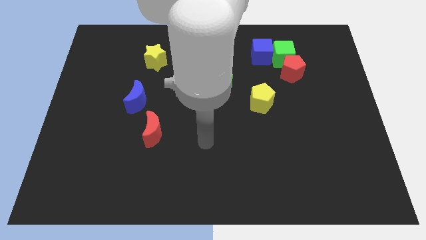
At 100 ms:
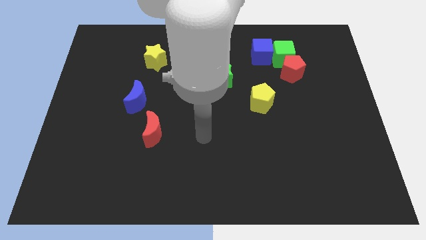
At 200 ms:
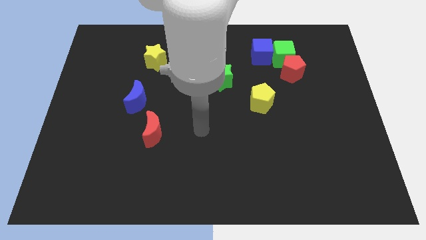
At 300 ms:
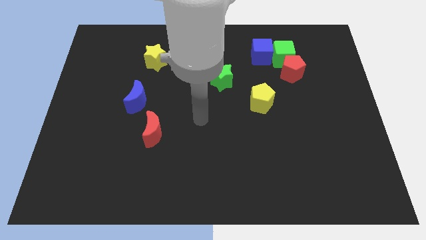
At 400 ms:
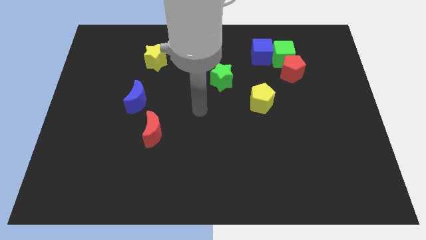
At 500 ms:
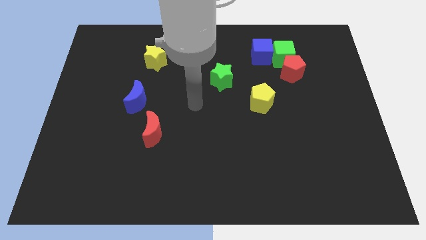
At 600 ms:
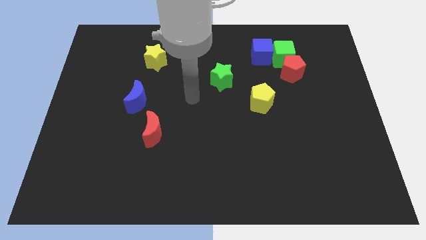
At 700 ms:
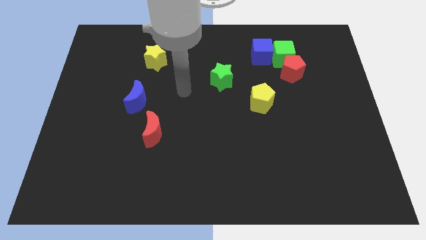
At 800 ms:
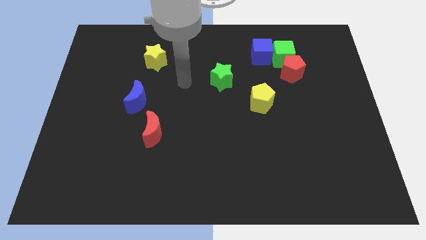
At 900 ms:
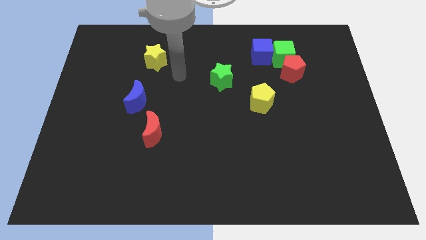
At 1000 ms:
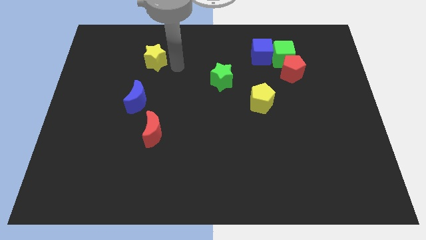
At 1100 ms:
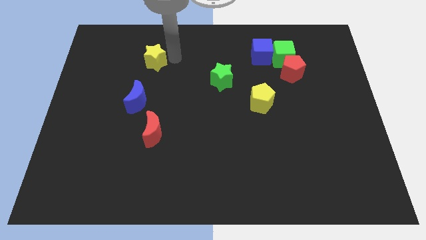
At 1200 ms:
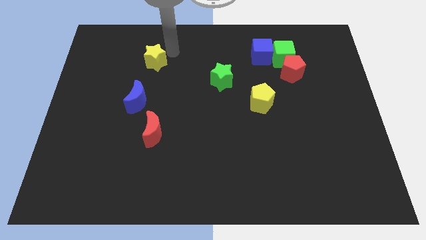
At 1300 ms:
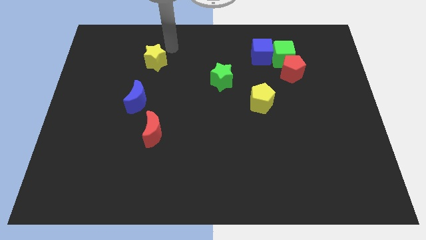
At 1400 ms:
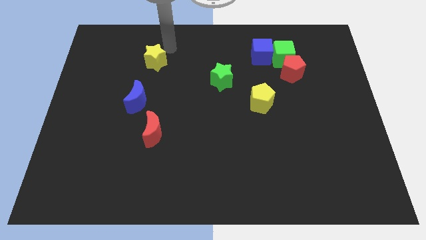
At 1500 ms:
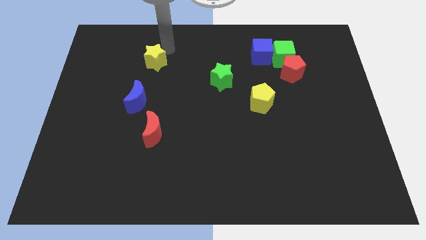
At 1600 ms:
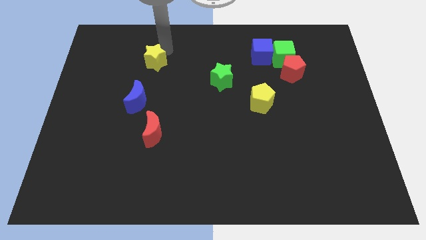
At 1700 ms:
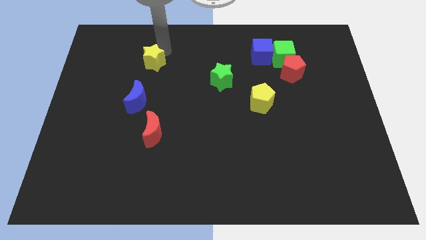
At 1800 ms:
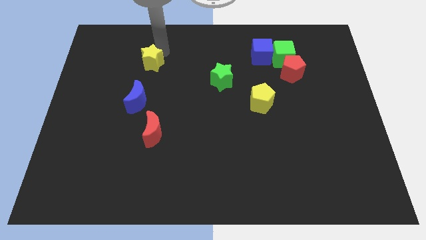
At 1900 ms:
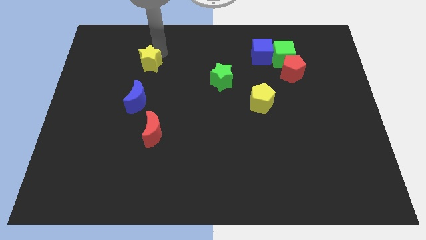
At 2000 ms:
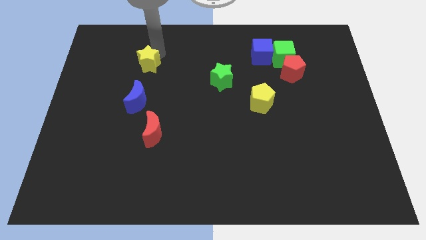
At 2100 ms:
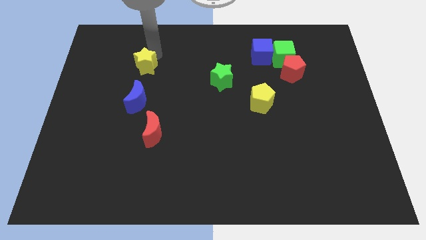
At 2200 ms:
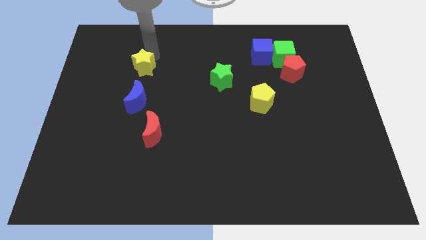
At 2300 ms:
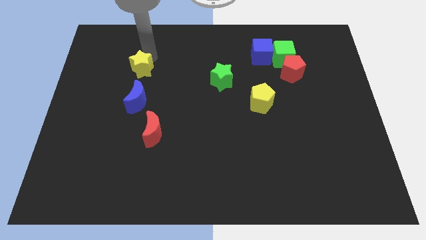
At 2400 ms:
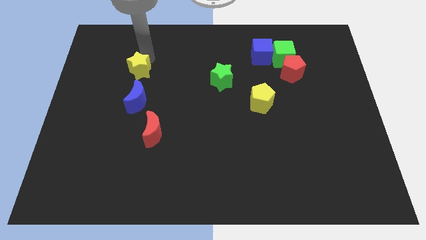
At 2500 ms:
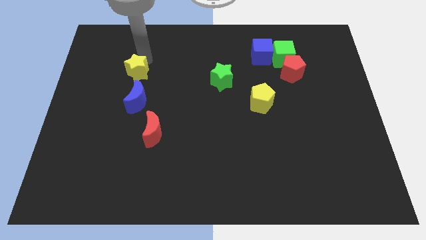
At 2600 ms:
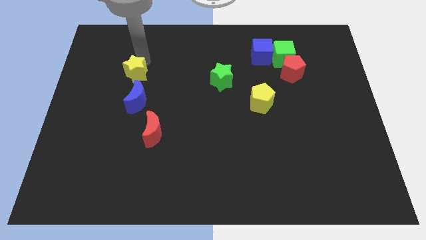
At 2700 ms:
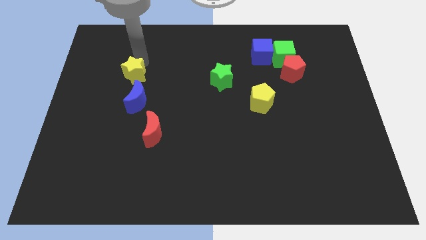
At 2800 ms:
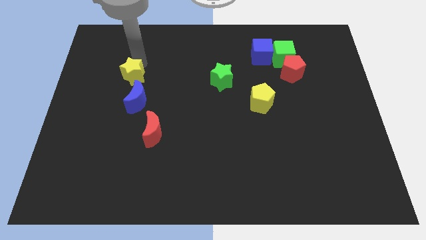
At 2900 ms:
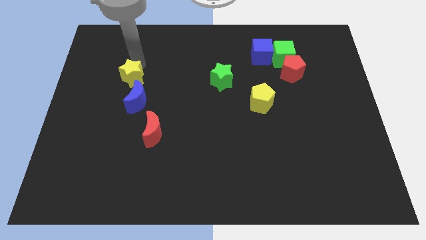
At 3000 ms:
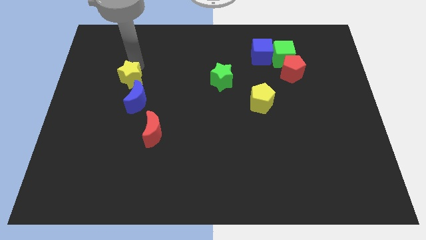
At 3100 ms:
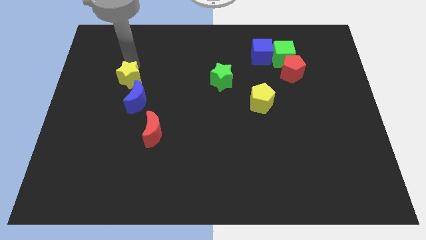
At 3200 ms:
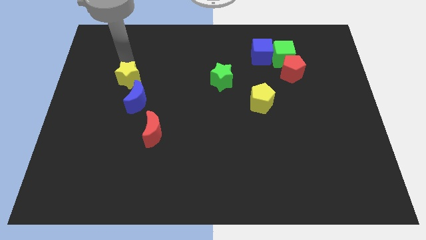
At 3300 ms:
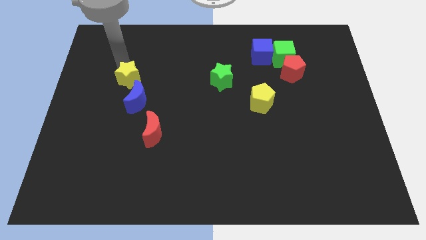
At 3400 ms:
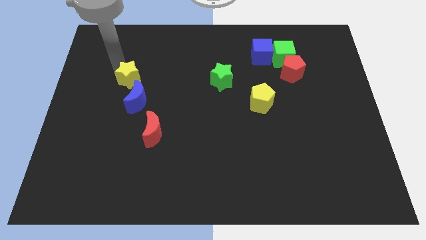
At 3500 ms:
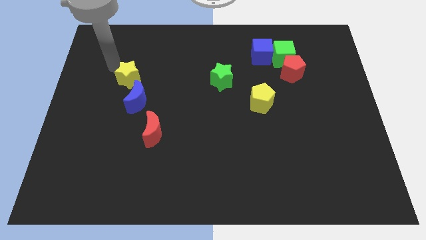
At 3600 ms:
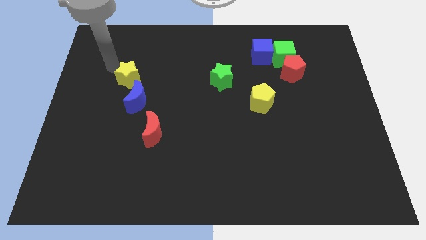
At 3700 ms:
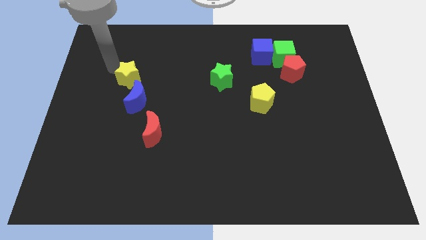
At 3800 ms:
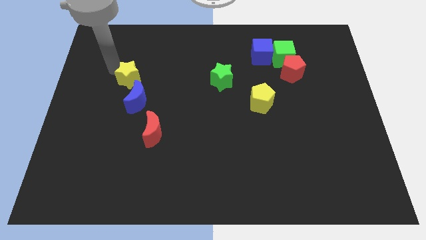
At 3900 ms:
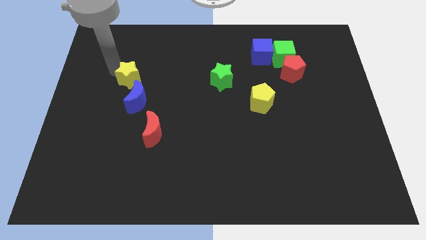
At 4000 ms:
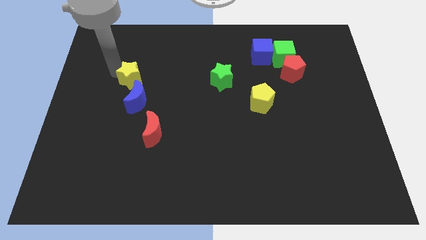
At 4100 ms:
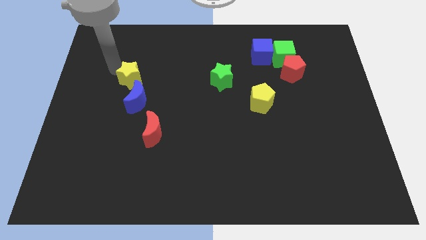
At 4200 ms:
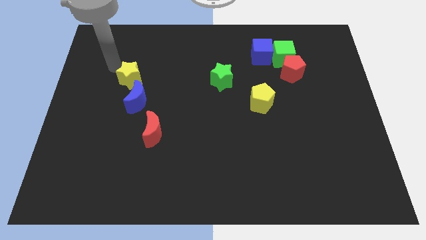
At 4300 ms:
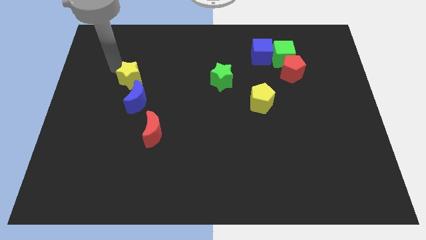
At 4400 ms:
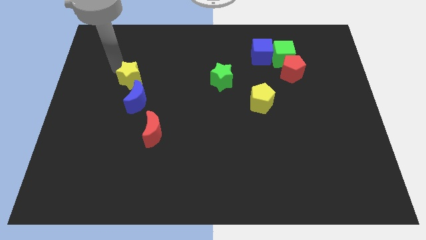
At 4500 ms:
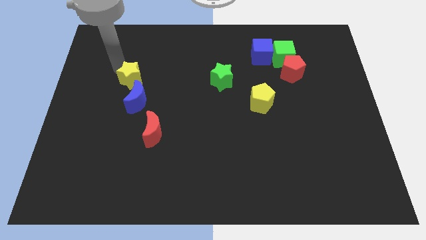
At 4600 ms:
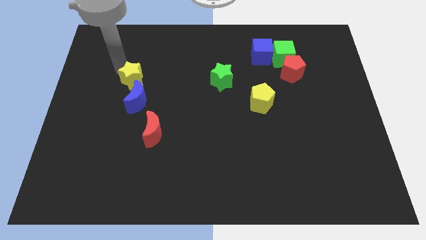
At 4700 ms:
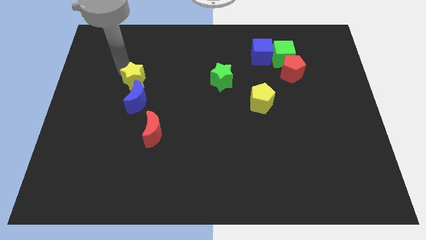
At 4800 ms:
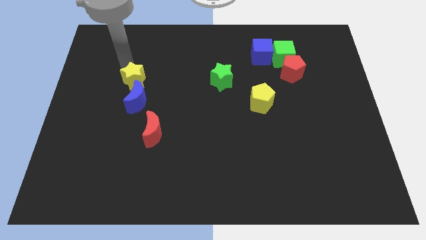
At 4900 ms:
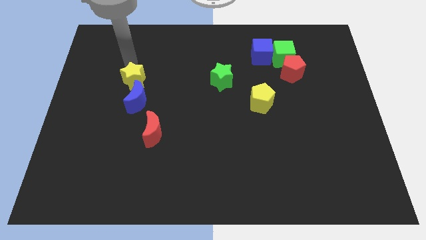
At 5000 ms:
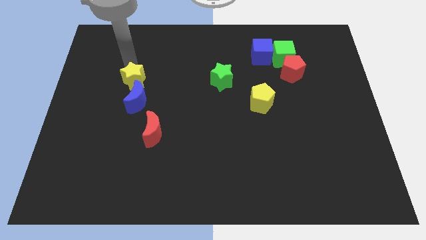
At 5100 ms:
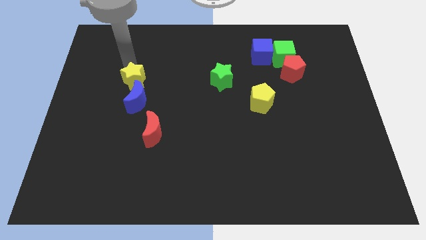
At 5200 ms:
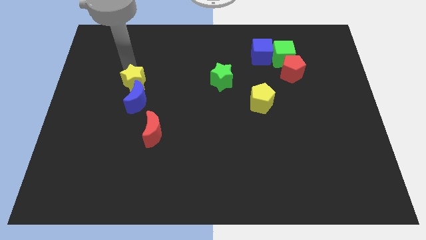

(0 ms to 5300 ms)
push the yellow star close to the blue moon

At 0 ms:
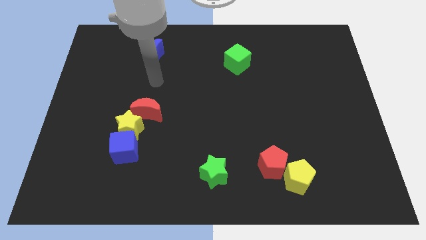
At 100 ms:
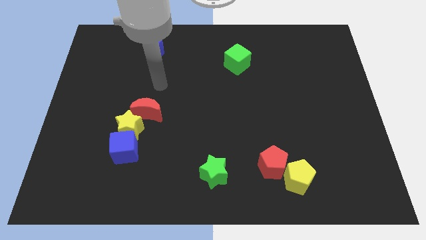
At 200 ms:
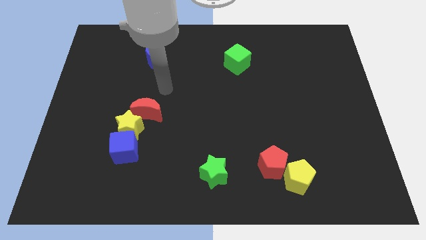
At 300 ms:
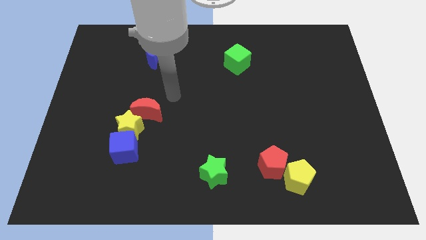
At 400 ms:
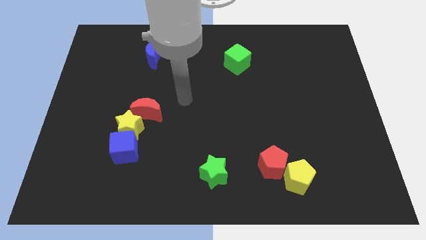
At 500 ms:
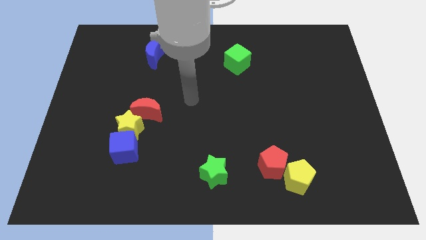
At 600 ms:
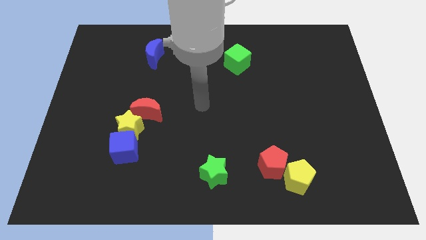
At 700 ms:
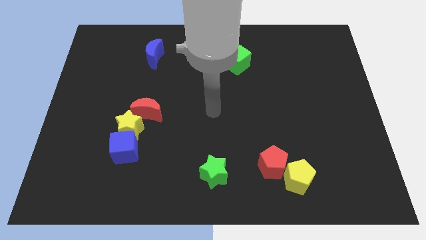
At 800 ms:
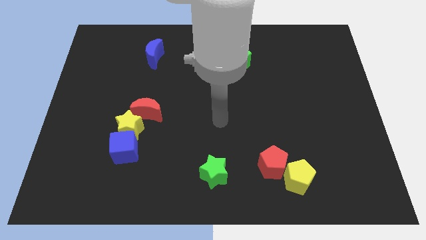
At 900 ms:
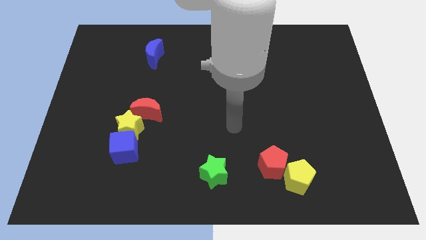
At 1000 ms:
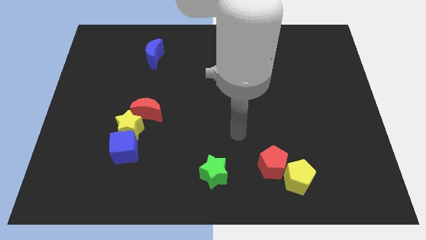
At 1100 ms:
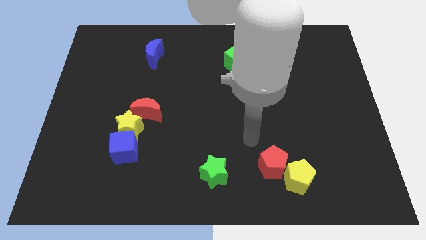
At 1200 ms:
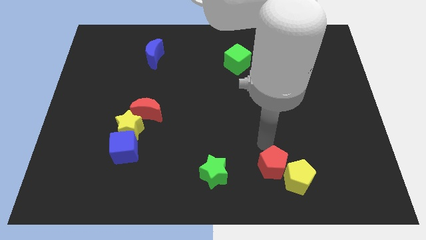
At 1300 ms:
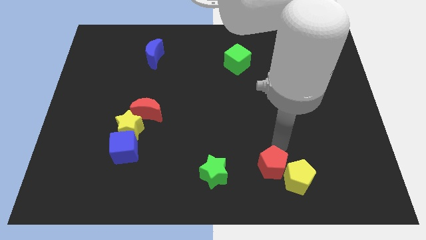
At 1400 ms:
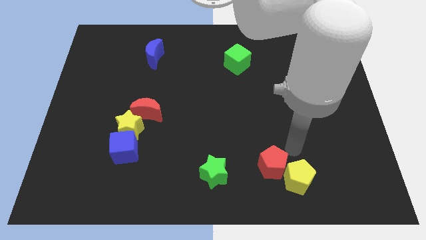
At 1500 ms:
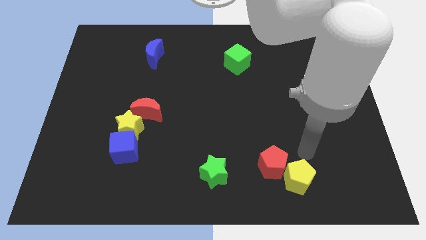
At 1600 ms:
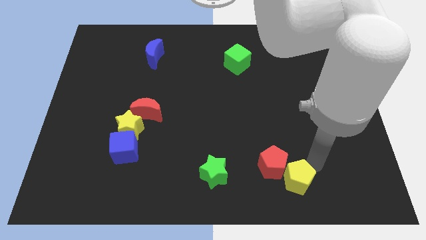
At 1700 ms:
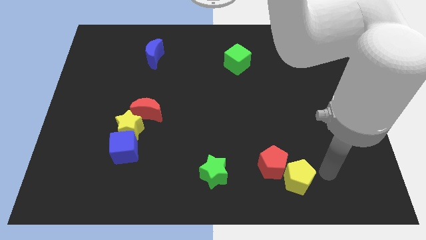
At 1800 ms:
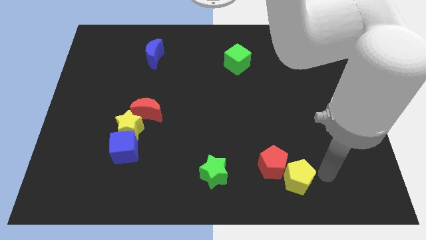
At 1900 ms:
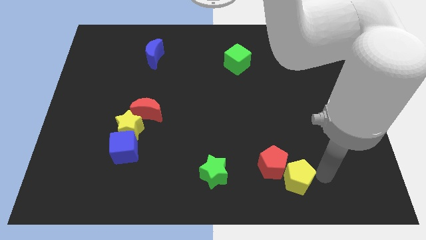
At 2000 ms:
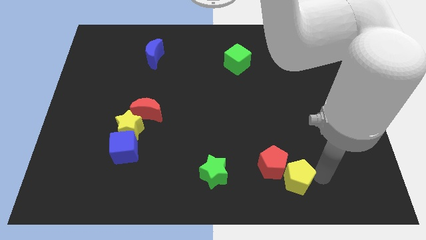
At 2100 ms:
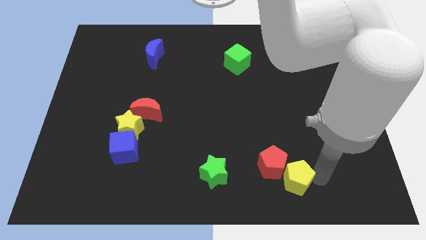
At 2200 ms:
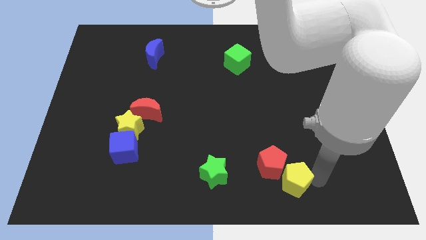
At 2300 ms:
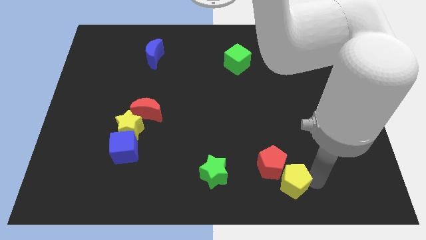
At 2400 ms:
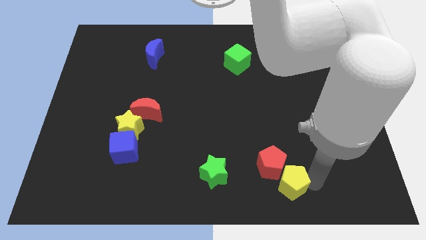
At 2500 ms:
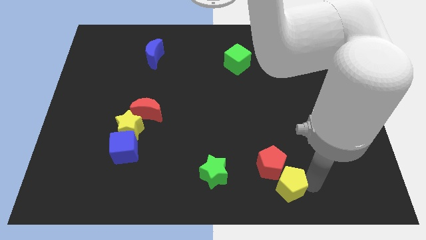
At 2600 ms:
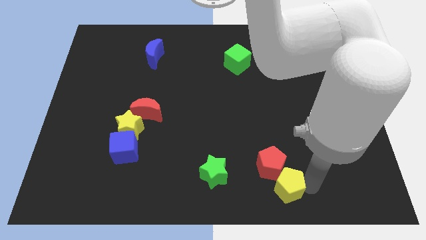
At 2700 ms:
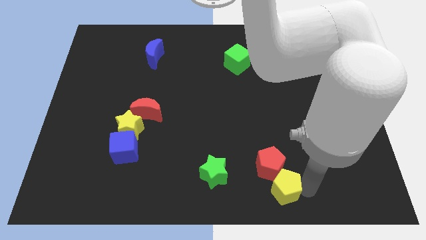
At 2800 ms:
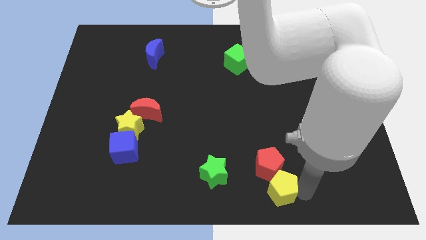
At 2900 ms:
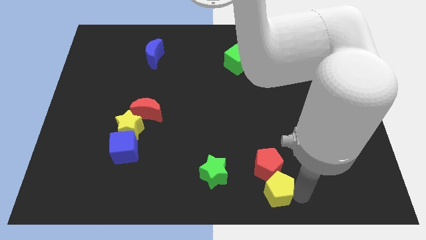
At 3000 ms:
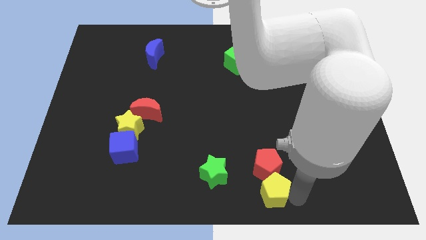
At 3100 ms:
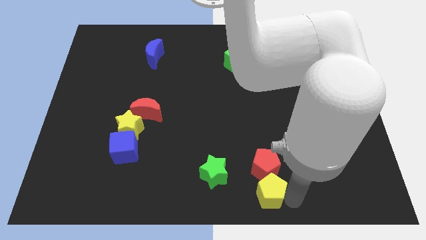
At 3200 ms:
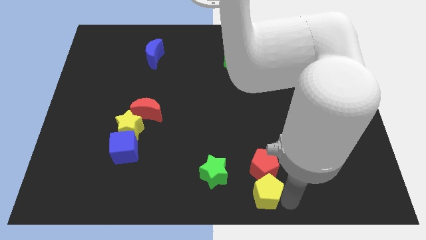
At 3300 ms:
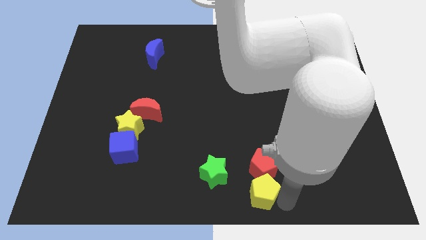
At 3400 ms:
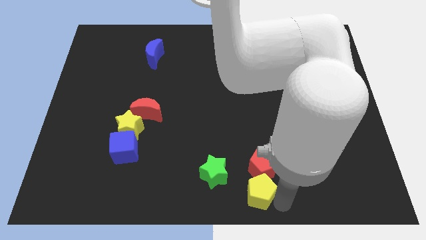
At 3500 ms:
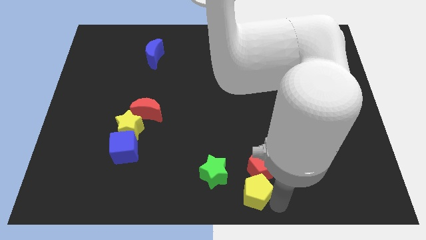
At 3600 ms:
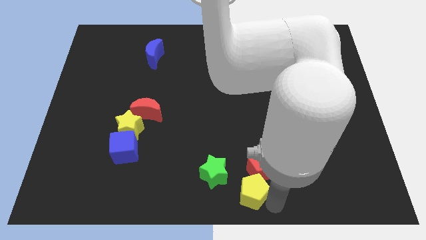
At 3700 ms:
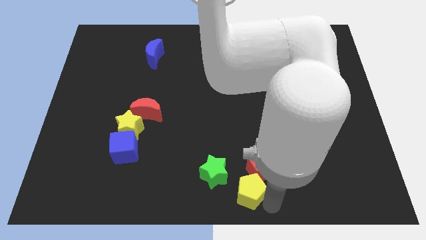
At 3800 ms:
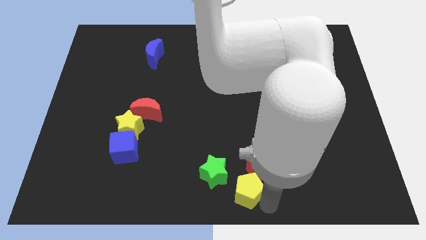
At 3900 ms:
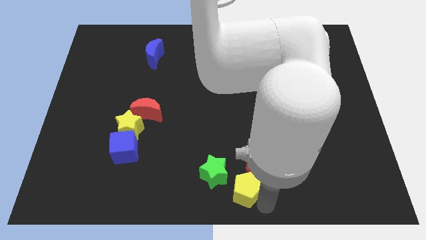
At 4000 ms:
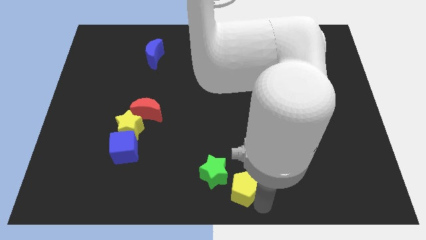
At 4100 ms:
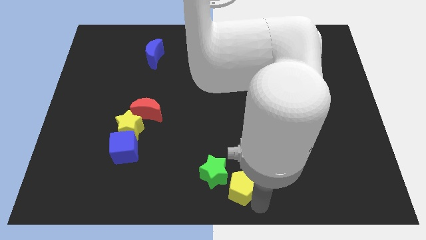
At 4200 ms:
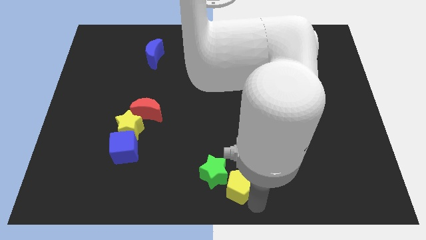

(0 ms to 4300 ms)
slide the yellow pentagon close to the green star
